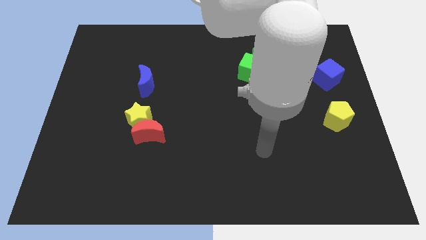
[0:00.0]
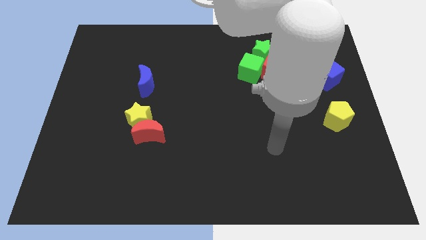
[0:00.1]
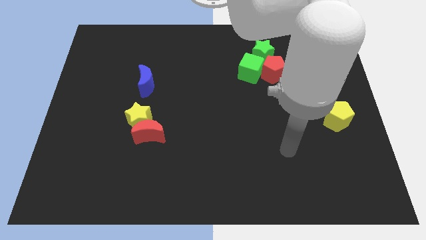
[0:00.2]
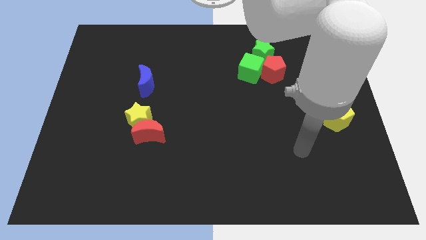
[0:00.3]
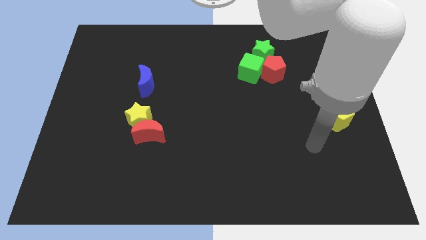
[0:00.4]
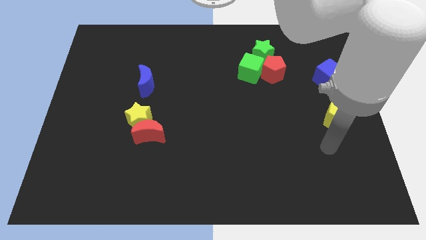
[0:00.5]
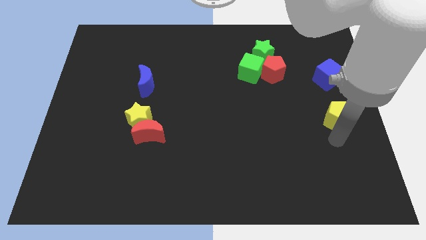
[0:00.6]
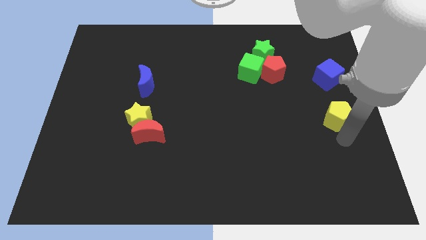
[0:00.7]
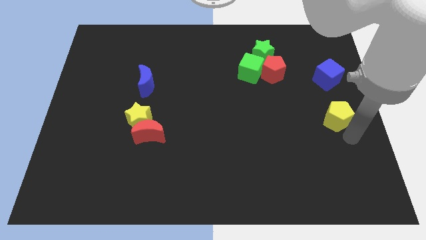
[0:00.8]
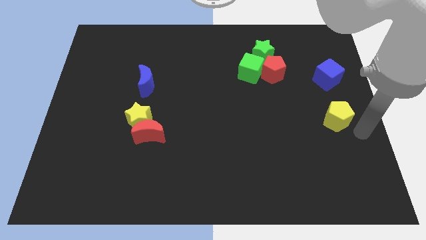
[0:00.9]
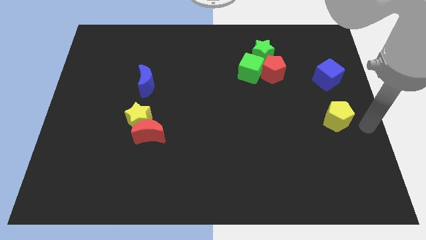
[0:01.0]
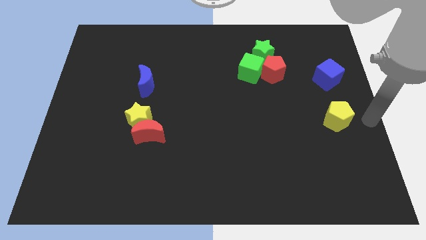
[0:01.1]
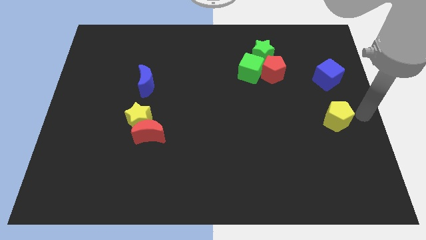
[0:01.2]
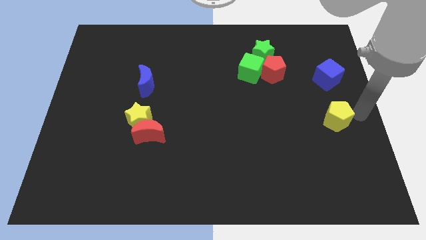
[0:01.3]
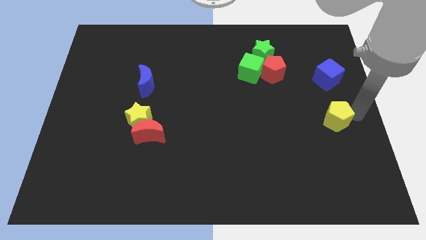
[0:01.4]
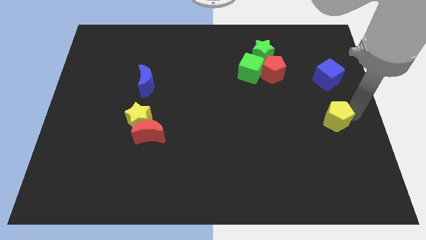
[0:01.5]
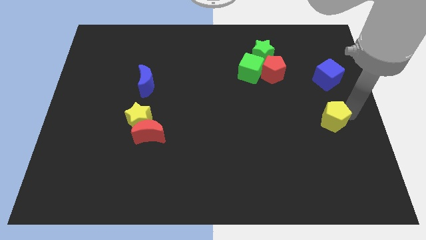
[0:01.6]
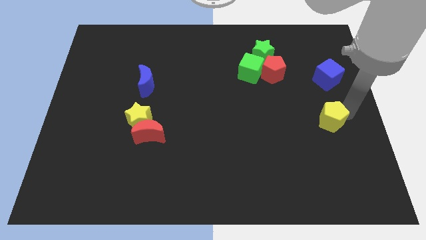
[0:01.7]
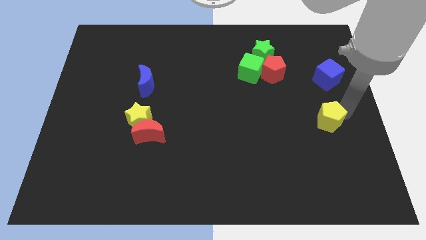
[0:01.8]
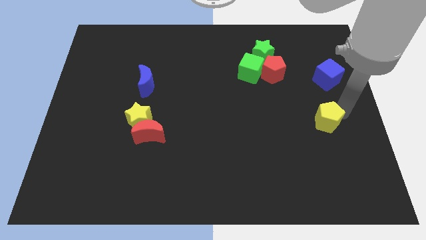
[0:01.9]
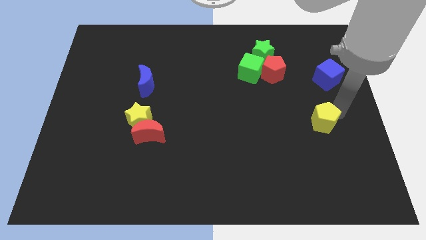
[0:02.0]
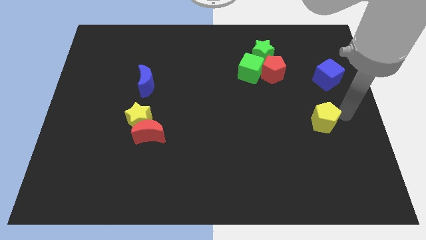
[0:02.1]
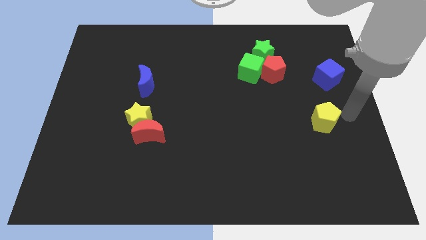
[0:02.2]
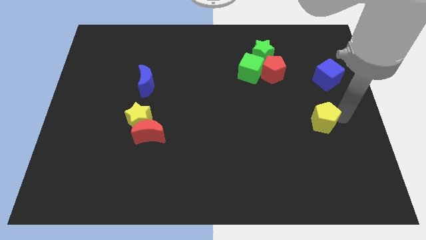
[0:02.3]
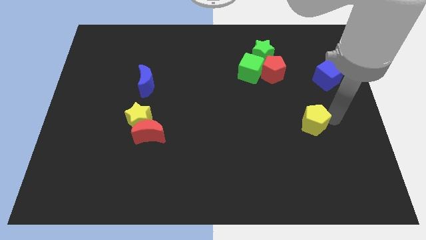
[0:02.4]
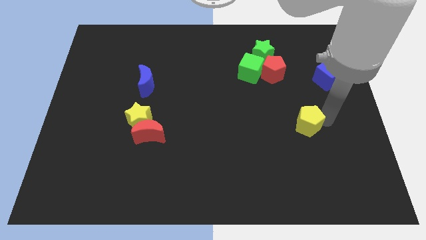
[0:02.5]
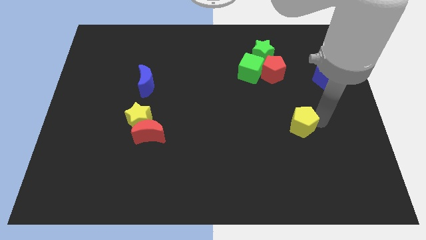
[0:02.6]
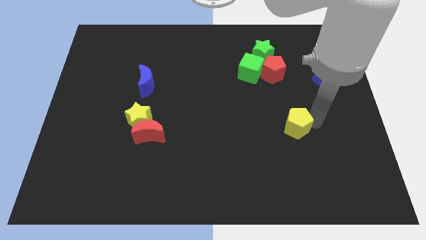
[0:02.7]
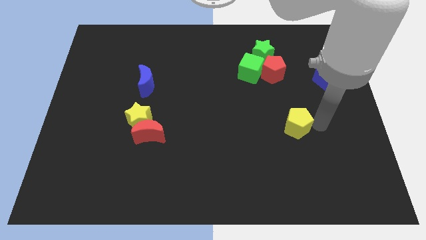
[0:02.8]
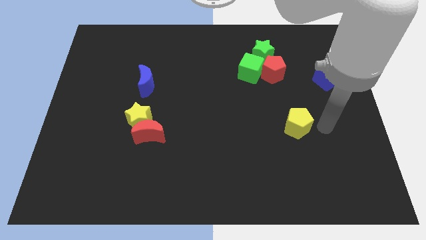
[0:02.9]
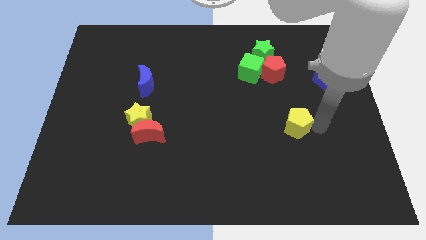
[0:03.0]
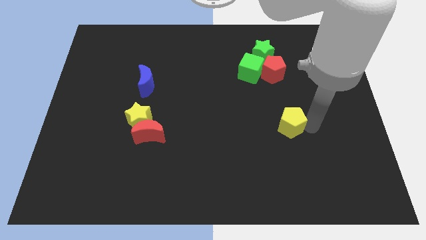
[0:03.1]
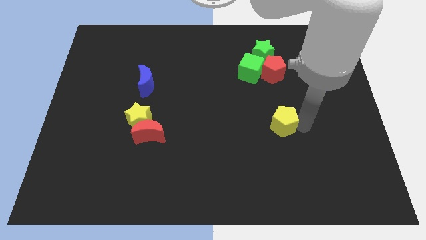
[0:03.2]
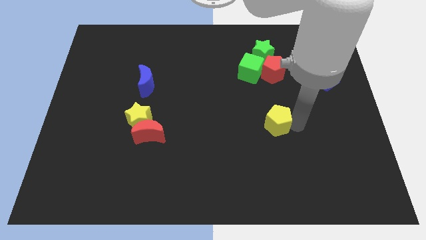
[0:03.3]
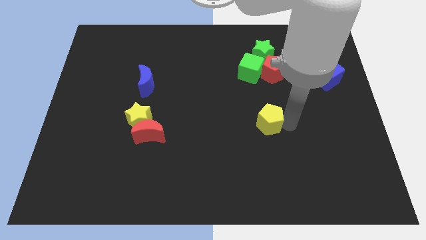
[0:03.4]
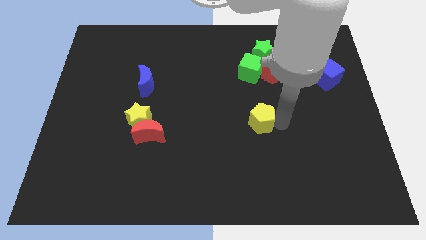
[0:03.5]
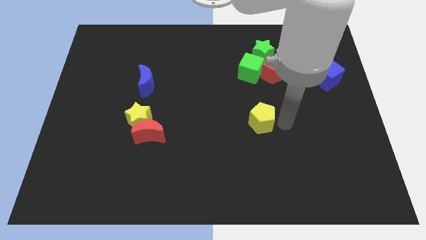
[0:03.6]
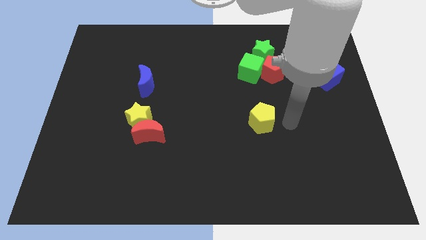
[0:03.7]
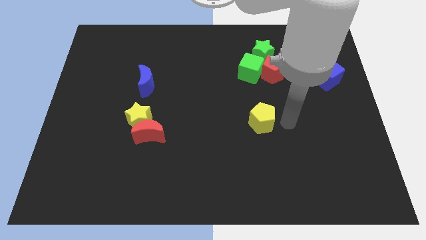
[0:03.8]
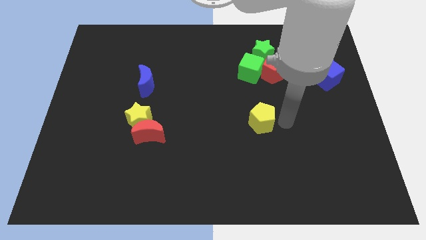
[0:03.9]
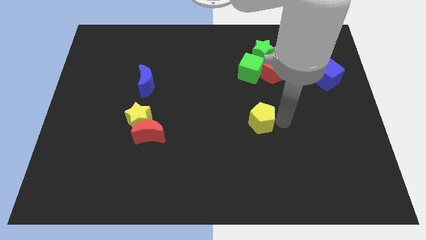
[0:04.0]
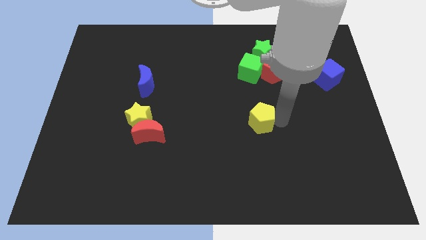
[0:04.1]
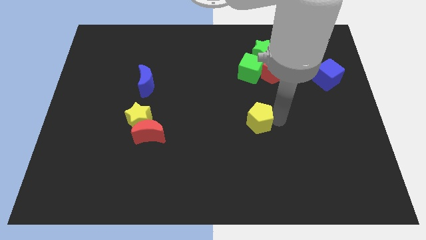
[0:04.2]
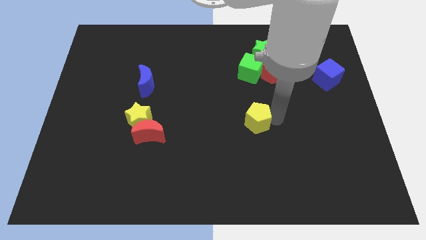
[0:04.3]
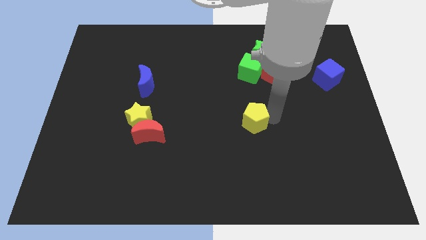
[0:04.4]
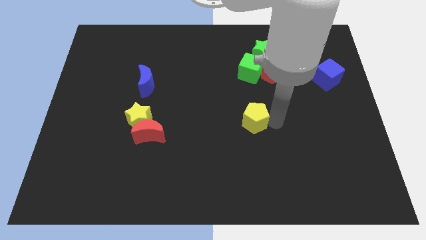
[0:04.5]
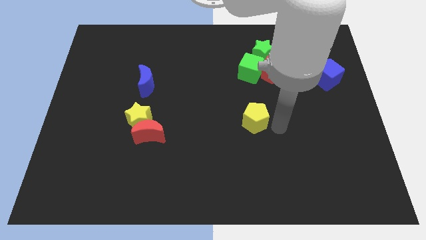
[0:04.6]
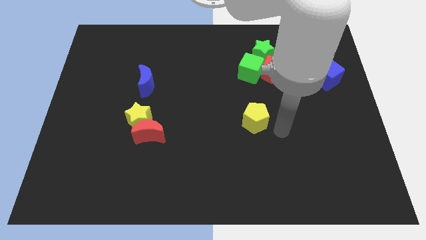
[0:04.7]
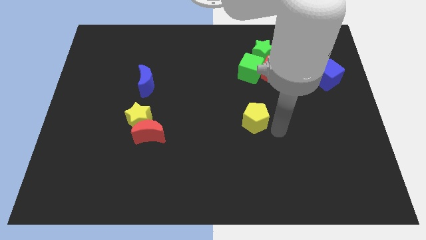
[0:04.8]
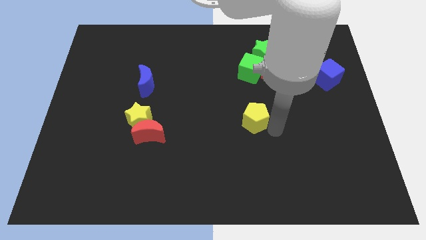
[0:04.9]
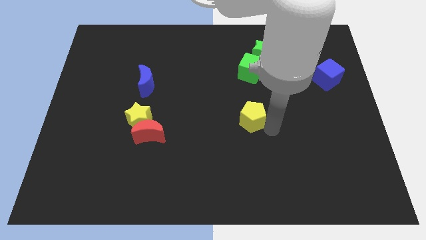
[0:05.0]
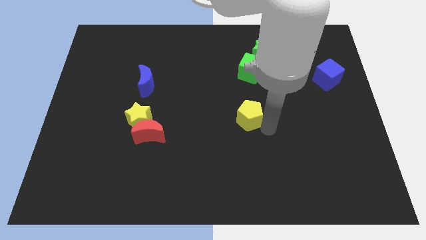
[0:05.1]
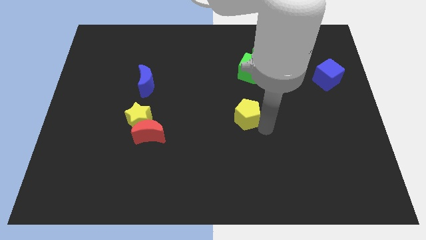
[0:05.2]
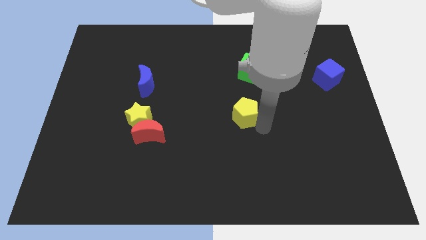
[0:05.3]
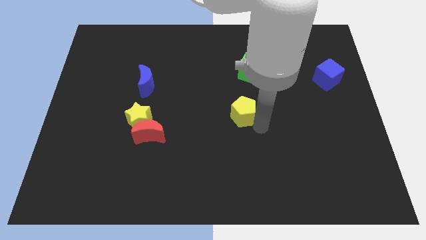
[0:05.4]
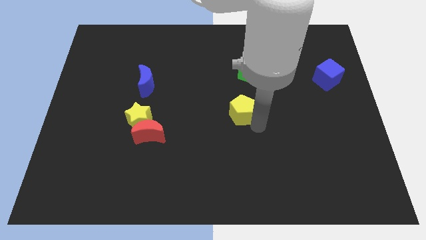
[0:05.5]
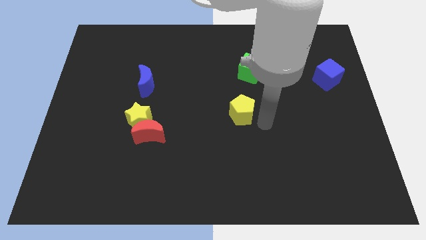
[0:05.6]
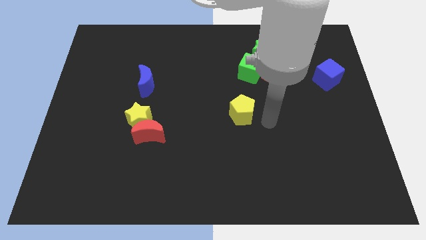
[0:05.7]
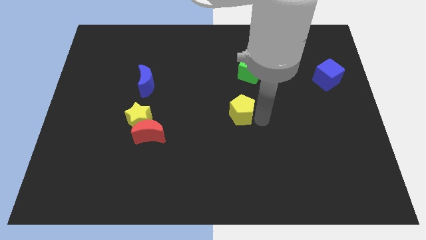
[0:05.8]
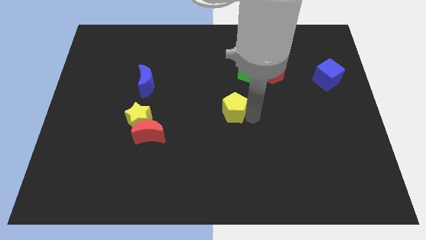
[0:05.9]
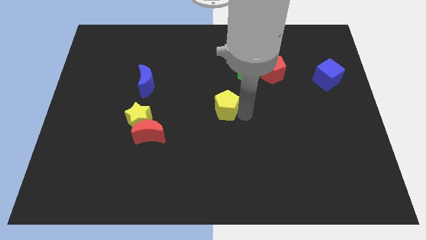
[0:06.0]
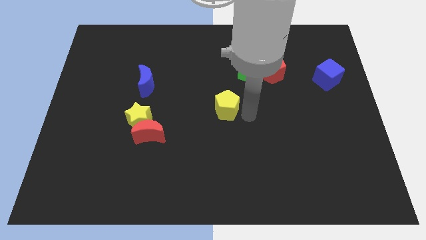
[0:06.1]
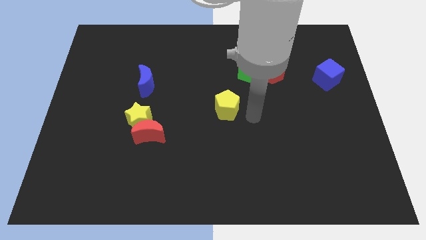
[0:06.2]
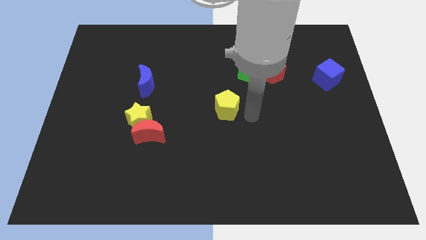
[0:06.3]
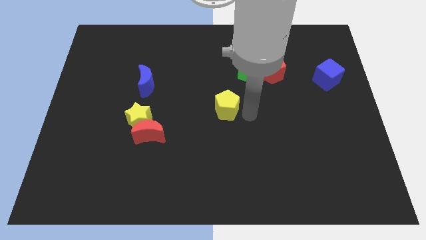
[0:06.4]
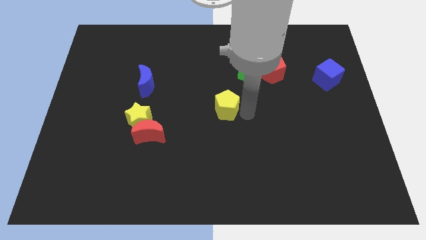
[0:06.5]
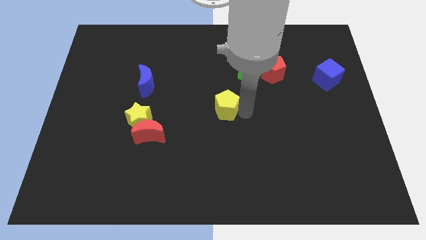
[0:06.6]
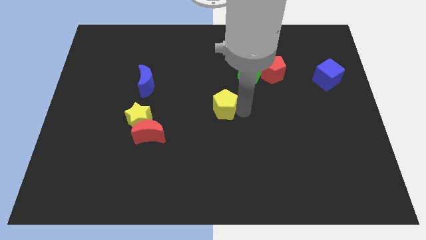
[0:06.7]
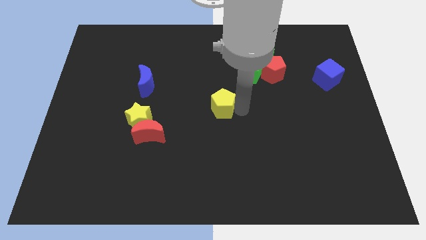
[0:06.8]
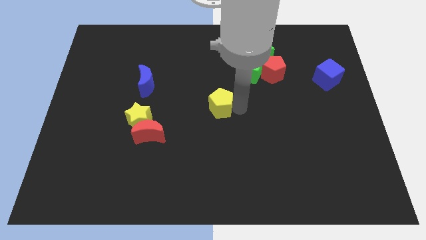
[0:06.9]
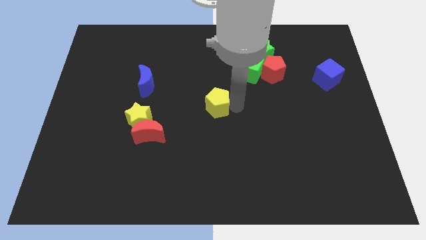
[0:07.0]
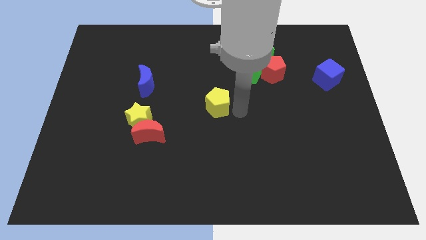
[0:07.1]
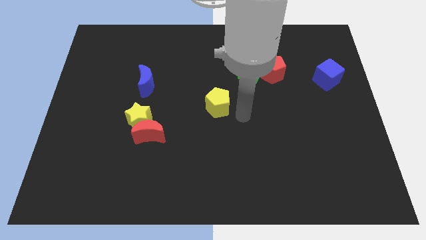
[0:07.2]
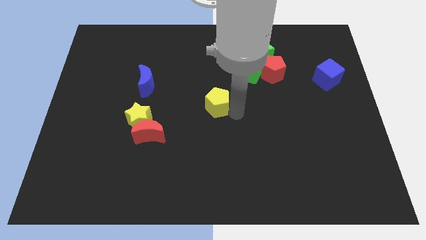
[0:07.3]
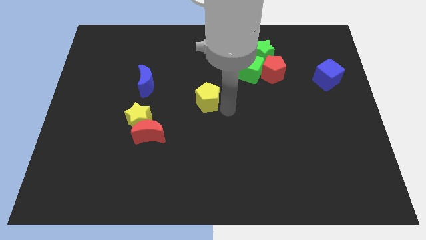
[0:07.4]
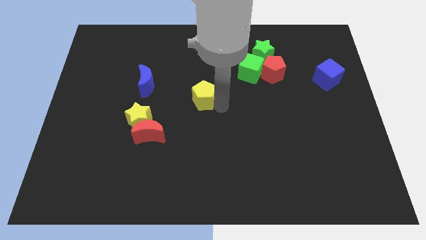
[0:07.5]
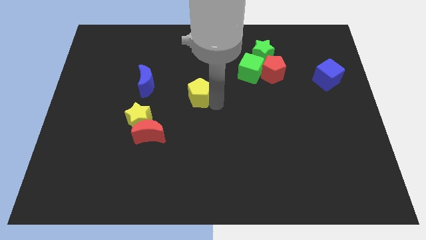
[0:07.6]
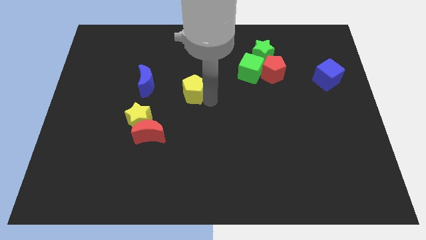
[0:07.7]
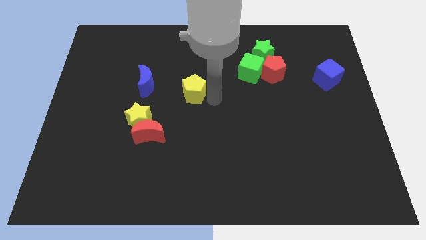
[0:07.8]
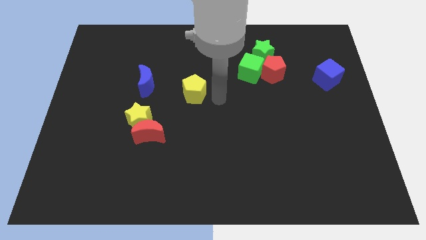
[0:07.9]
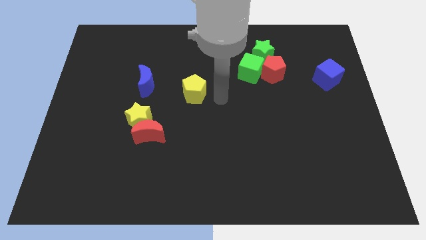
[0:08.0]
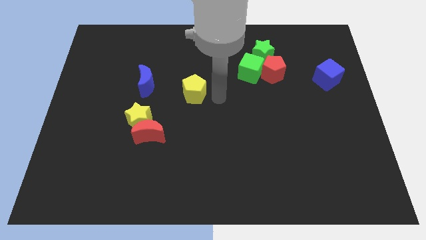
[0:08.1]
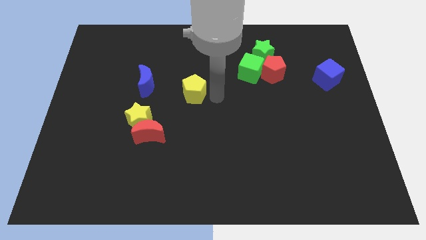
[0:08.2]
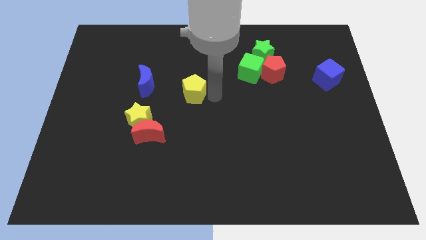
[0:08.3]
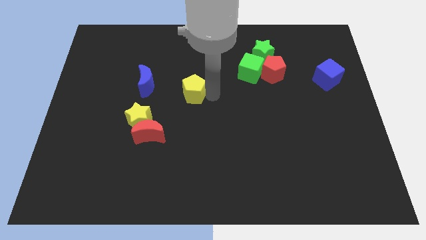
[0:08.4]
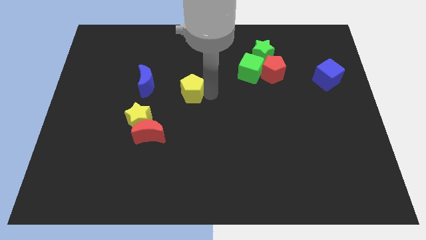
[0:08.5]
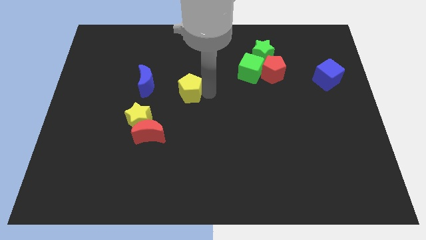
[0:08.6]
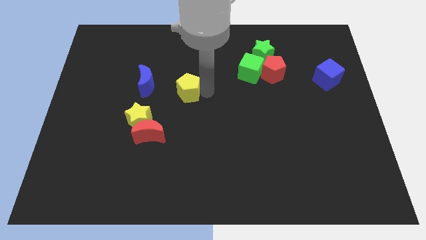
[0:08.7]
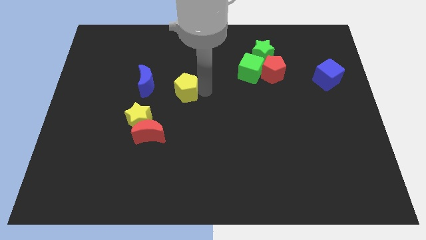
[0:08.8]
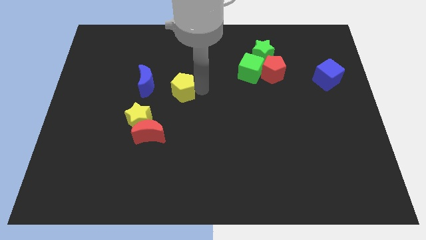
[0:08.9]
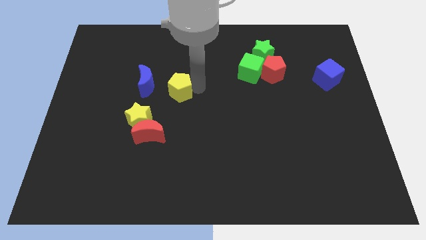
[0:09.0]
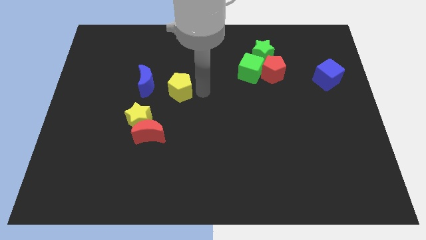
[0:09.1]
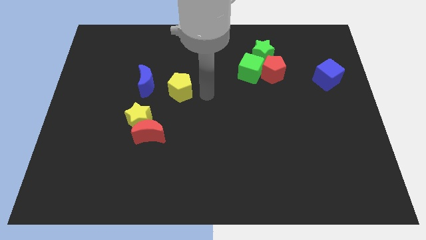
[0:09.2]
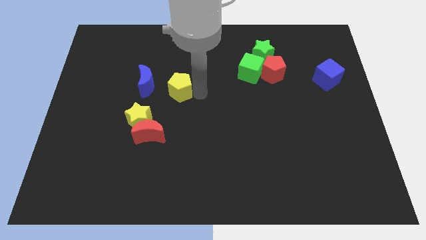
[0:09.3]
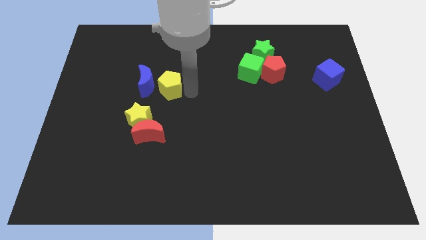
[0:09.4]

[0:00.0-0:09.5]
move the yellow pentagon to the blue moon
